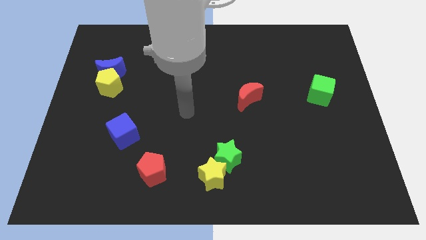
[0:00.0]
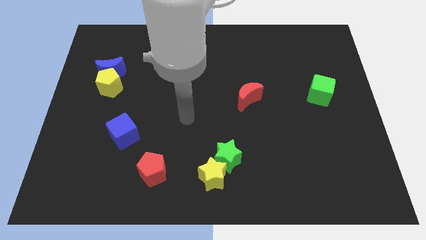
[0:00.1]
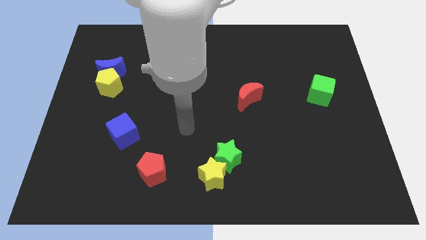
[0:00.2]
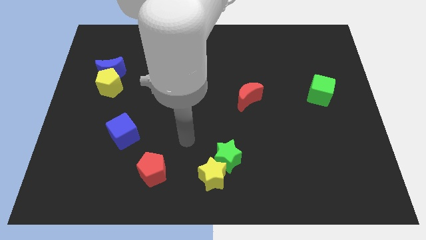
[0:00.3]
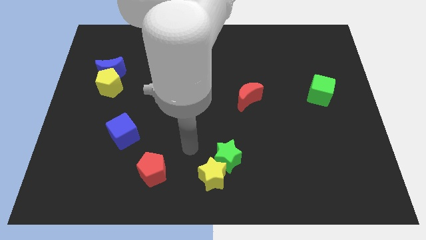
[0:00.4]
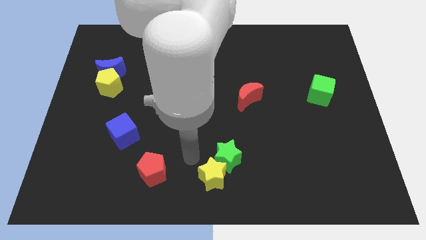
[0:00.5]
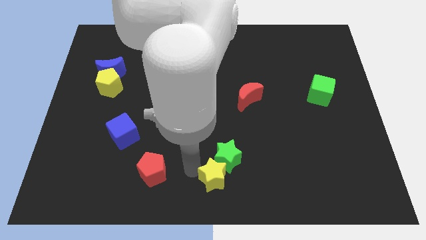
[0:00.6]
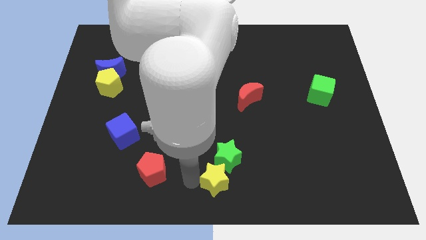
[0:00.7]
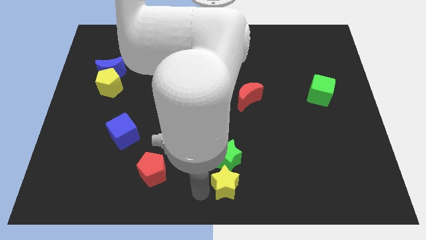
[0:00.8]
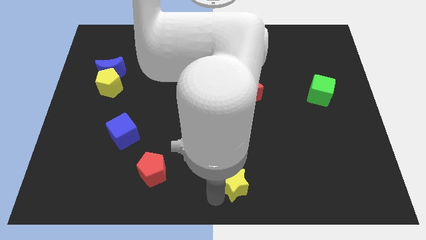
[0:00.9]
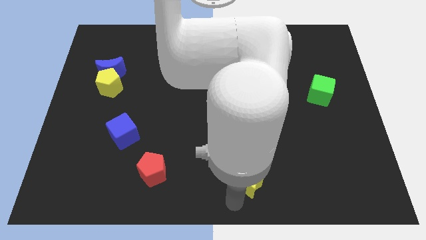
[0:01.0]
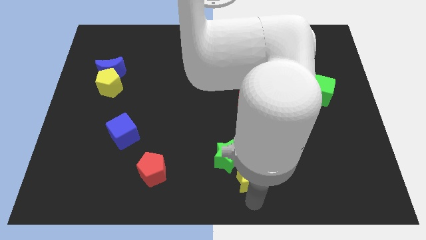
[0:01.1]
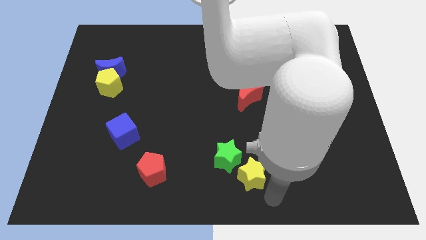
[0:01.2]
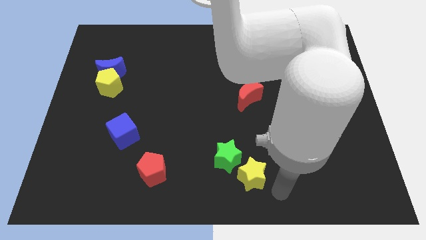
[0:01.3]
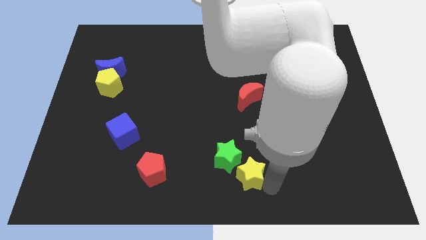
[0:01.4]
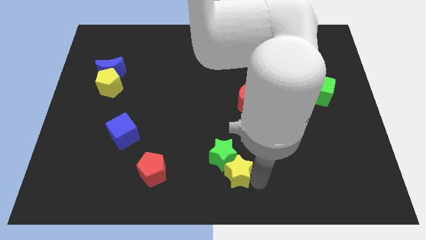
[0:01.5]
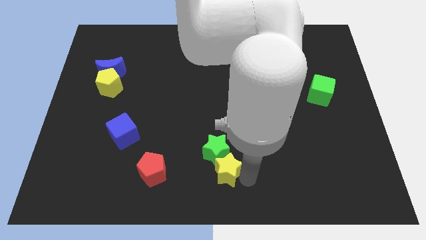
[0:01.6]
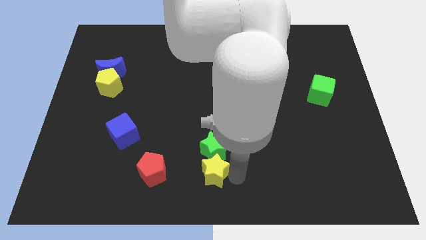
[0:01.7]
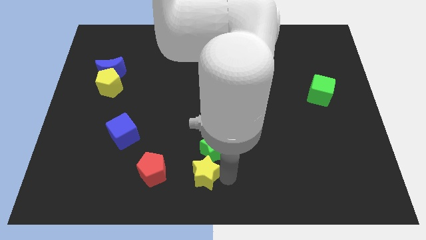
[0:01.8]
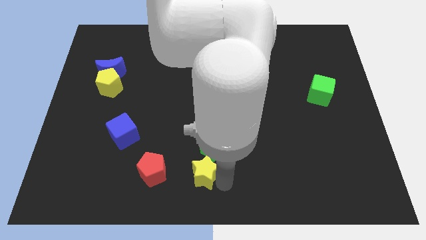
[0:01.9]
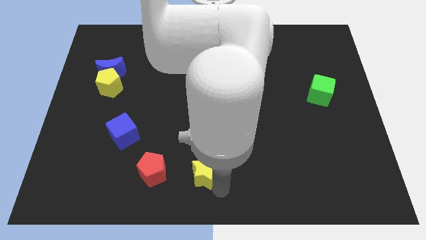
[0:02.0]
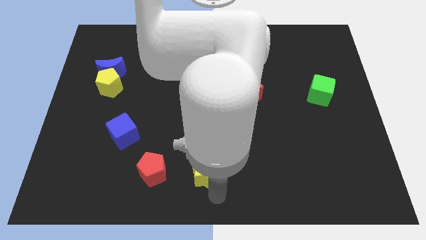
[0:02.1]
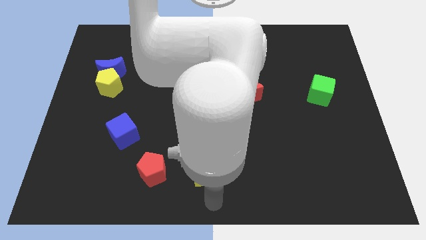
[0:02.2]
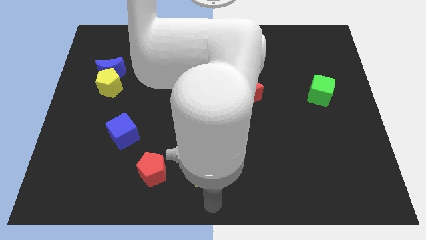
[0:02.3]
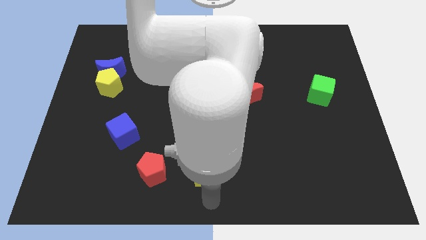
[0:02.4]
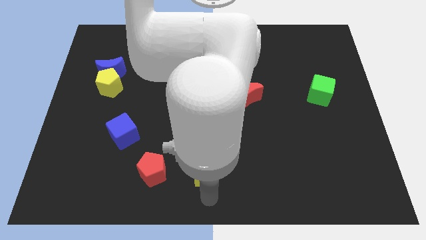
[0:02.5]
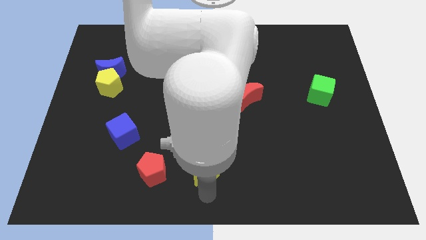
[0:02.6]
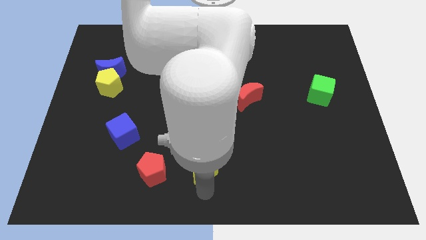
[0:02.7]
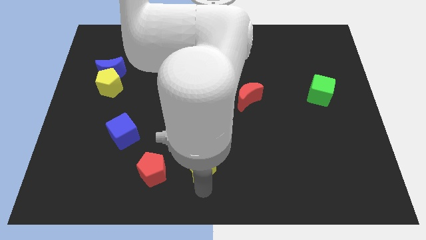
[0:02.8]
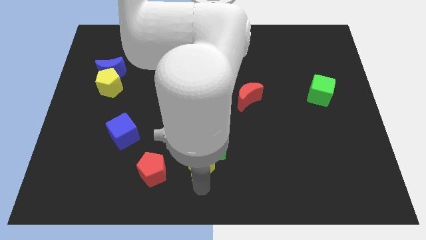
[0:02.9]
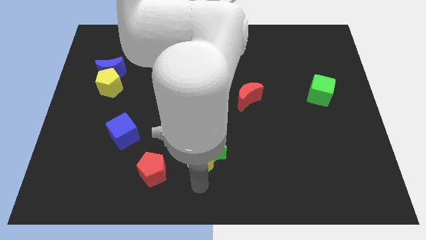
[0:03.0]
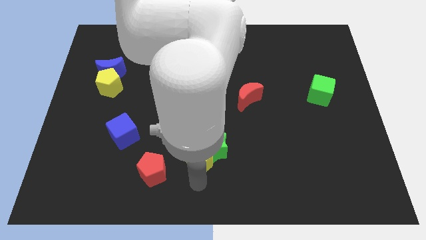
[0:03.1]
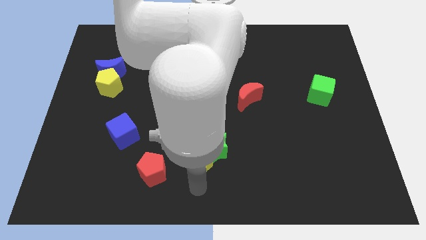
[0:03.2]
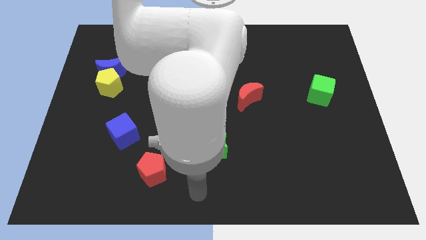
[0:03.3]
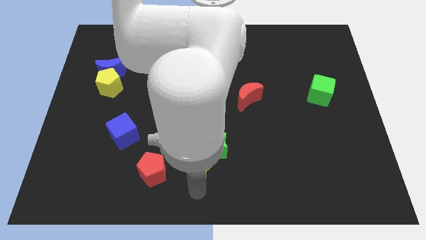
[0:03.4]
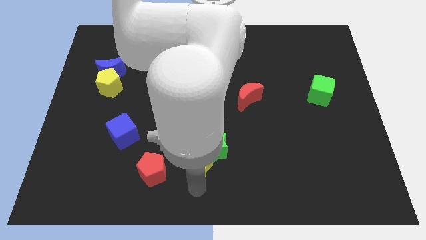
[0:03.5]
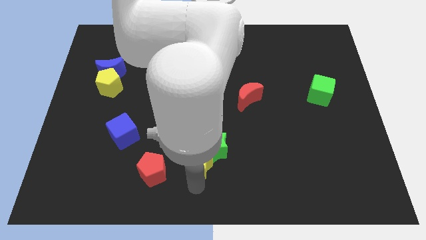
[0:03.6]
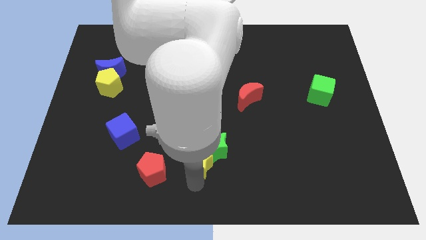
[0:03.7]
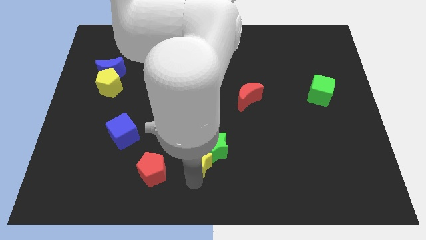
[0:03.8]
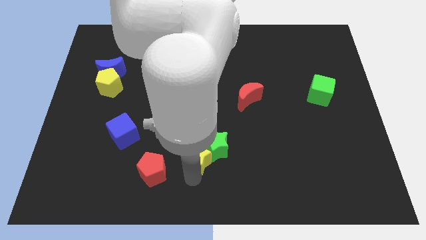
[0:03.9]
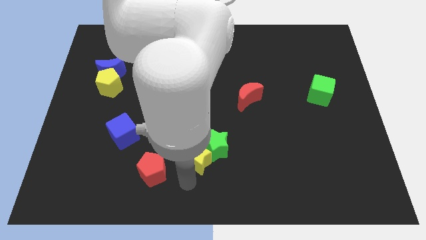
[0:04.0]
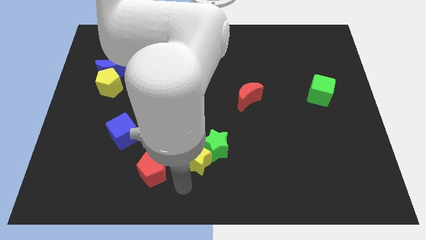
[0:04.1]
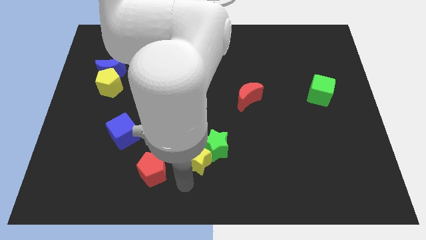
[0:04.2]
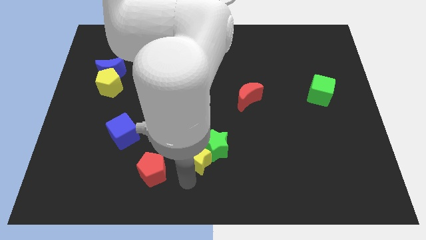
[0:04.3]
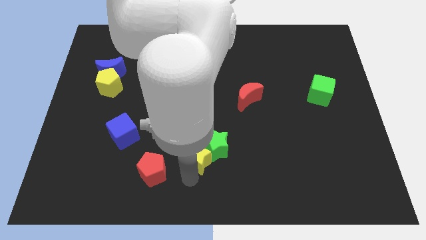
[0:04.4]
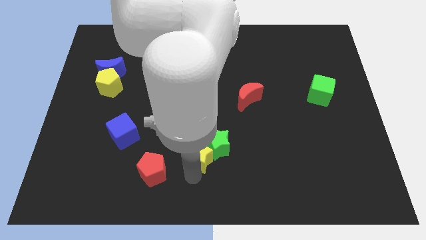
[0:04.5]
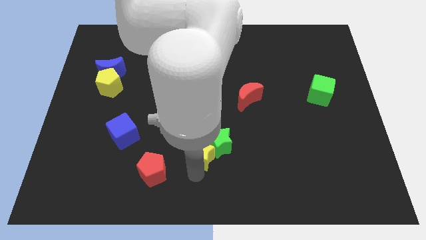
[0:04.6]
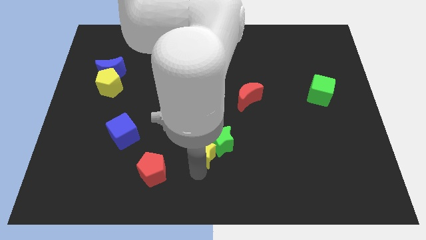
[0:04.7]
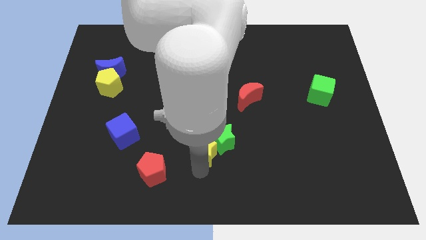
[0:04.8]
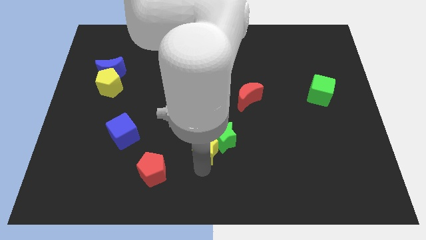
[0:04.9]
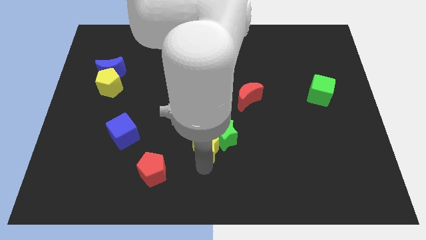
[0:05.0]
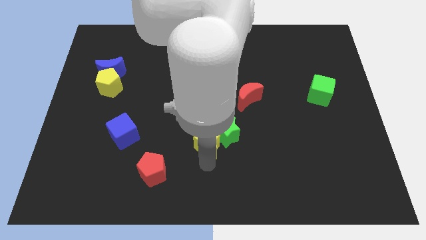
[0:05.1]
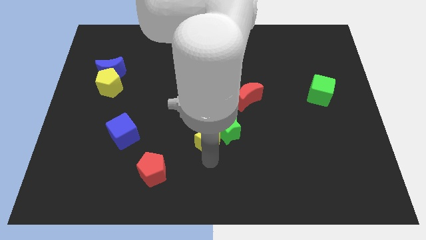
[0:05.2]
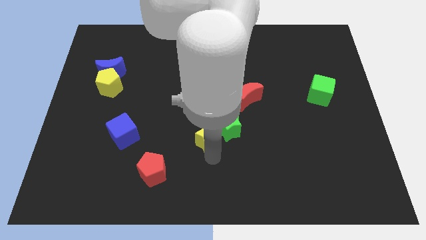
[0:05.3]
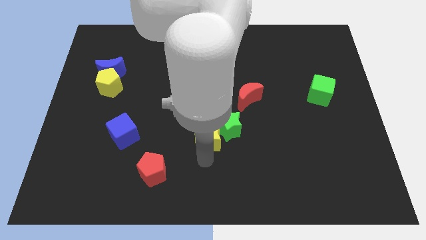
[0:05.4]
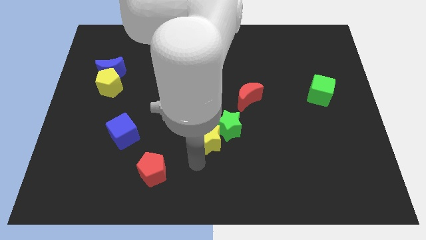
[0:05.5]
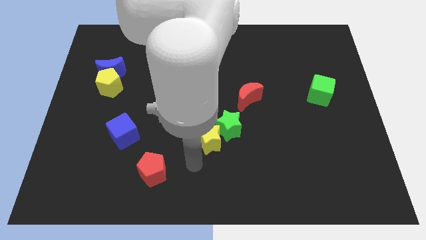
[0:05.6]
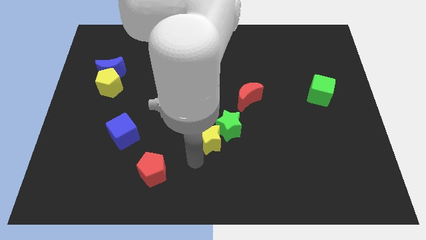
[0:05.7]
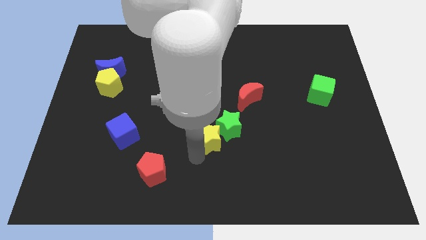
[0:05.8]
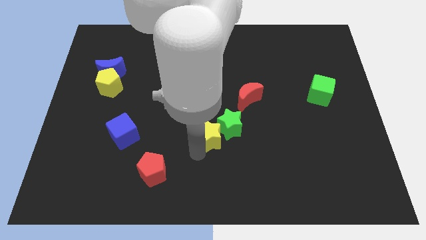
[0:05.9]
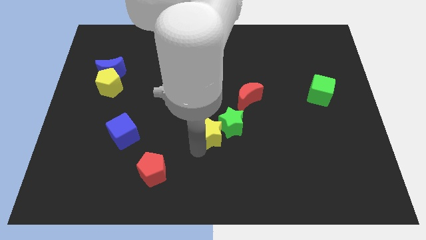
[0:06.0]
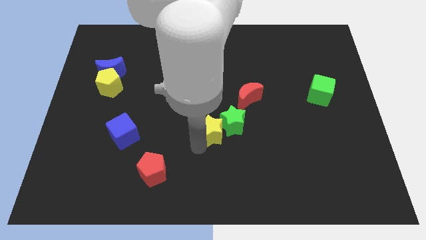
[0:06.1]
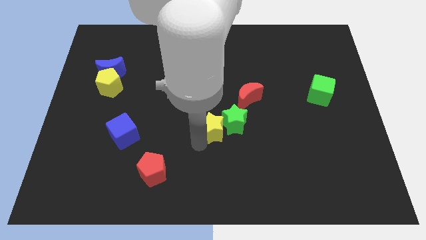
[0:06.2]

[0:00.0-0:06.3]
put the yellow star to the bottom left side of the red moon

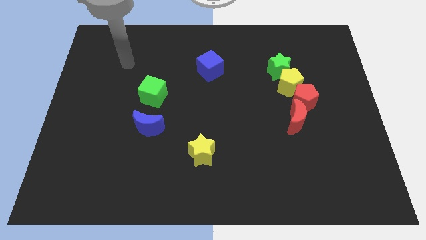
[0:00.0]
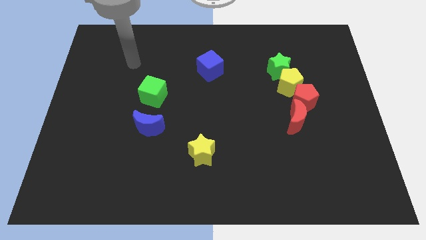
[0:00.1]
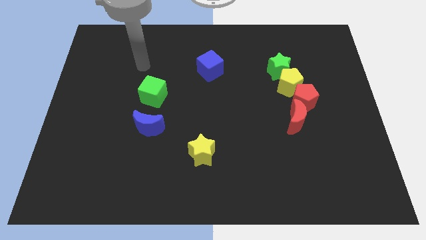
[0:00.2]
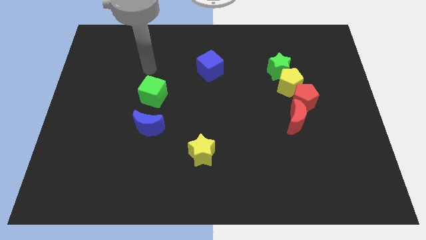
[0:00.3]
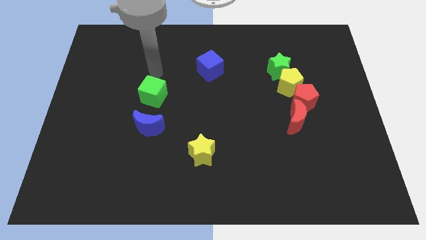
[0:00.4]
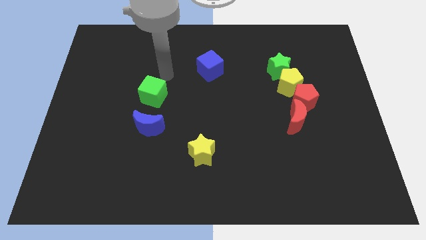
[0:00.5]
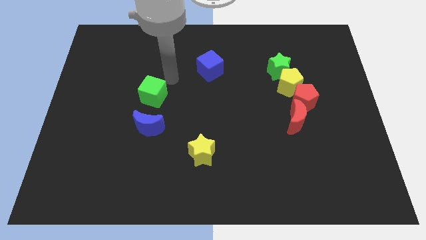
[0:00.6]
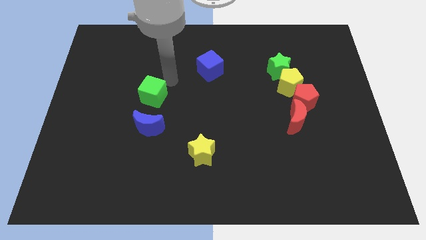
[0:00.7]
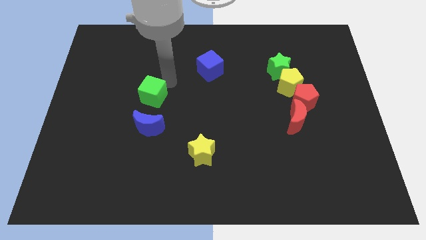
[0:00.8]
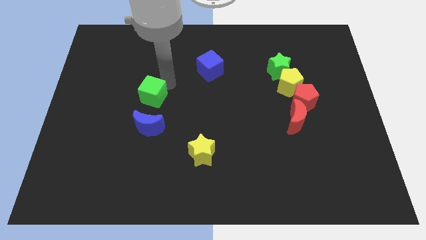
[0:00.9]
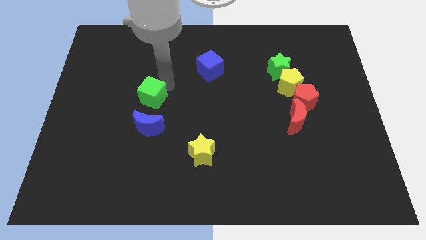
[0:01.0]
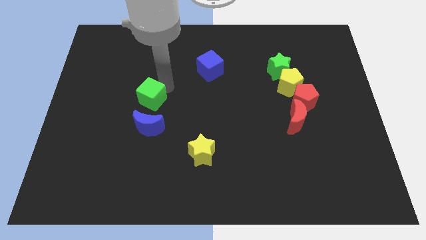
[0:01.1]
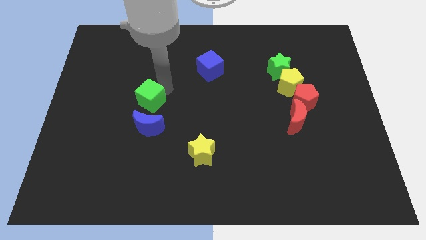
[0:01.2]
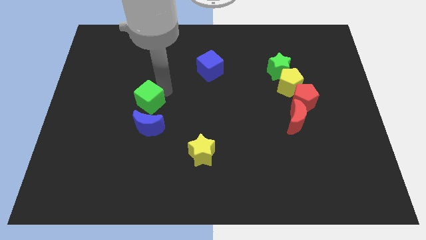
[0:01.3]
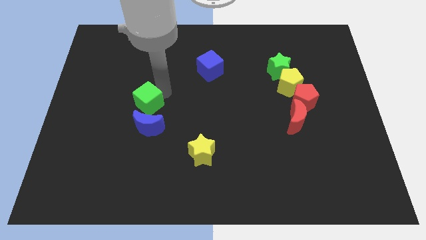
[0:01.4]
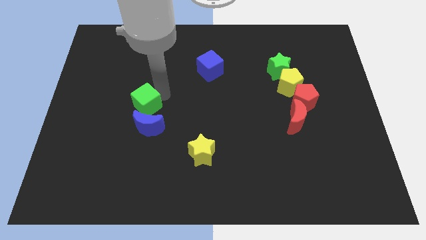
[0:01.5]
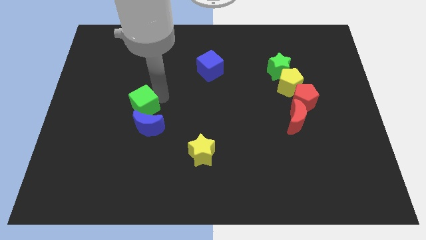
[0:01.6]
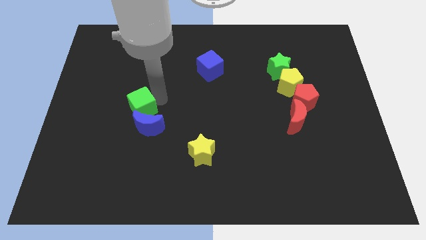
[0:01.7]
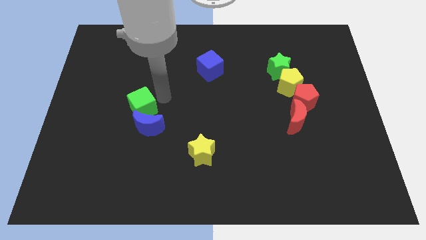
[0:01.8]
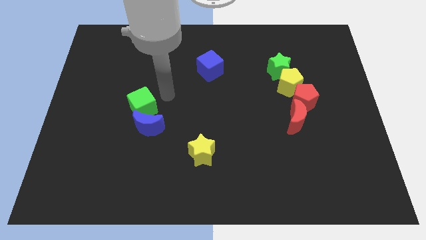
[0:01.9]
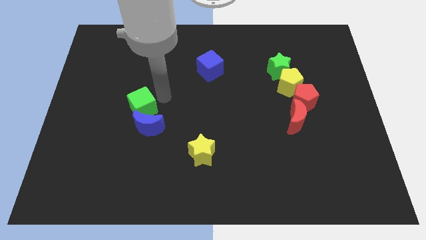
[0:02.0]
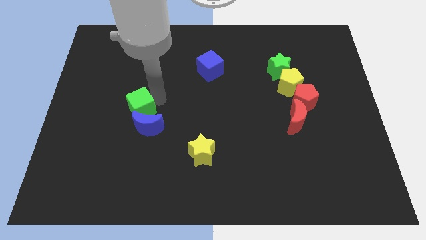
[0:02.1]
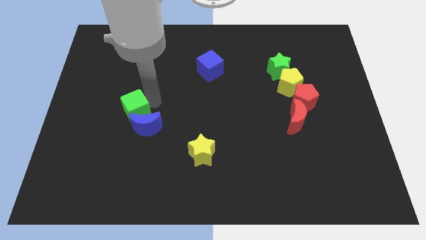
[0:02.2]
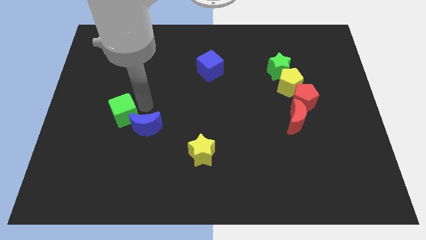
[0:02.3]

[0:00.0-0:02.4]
slide the green cube to the left side of the blue moon
